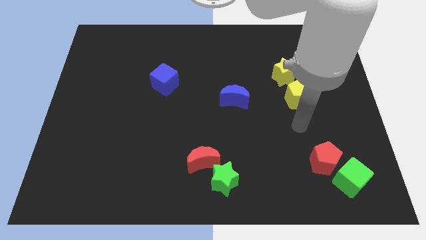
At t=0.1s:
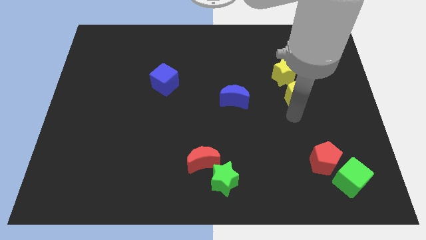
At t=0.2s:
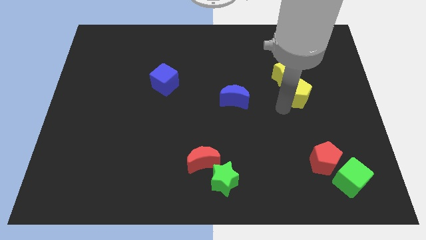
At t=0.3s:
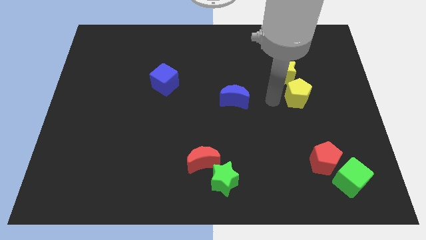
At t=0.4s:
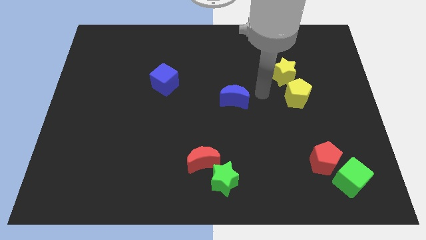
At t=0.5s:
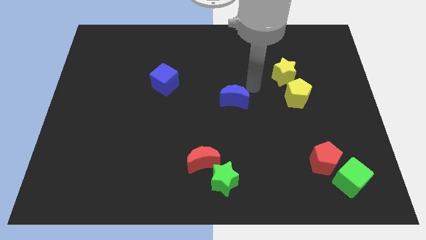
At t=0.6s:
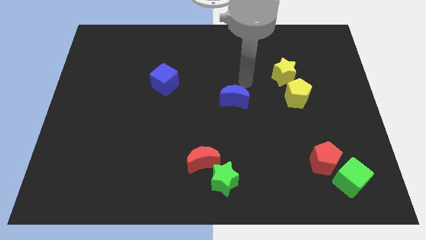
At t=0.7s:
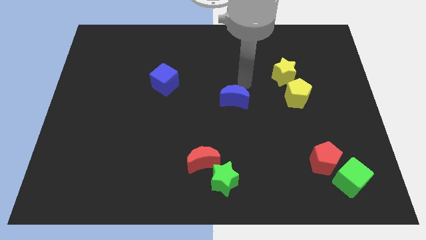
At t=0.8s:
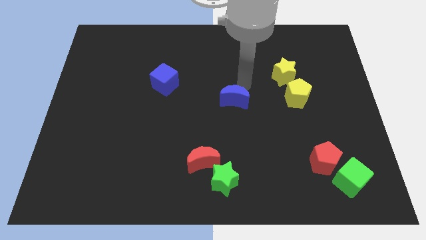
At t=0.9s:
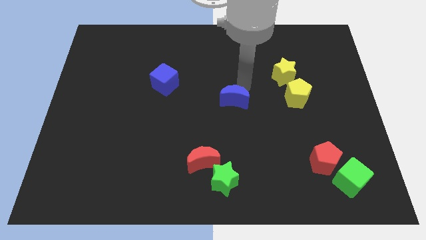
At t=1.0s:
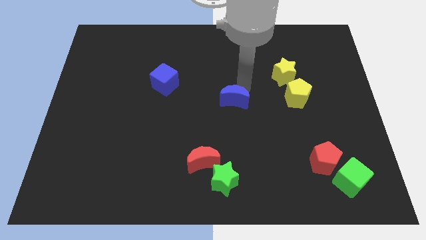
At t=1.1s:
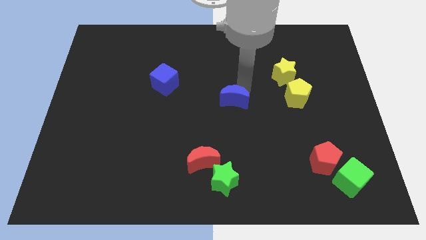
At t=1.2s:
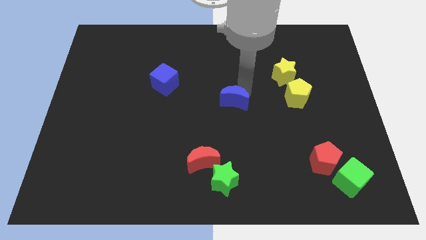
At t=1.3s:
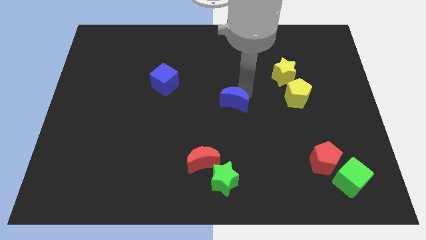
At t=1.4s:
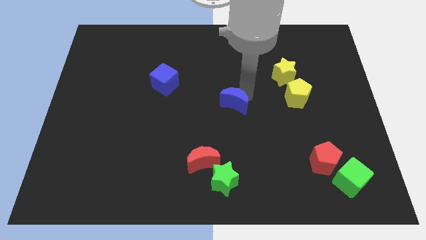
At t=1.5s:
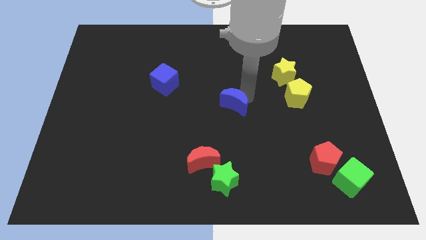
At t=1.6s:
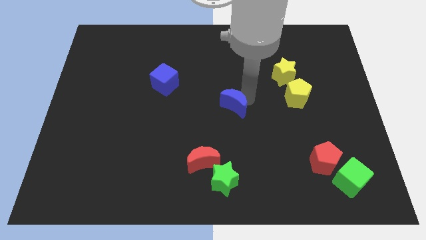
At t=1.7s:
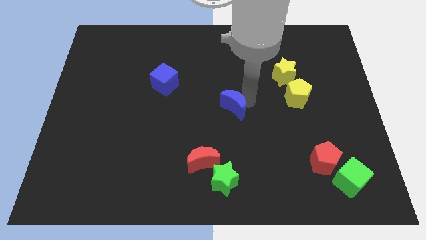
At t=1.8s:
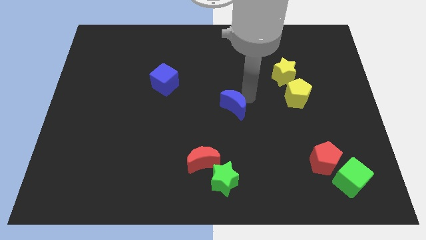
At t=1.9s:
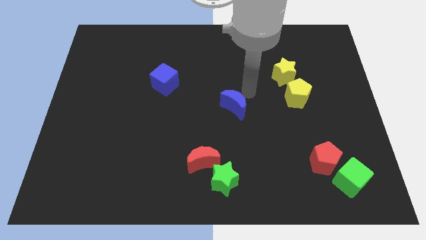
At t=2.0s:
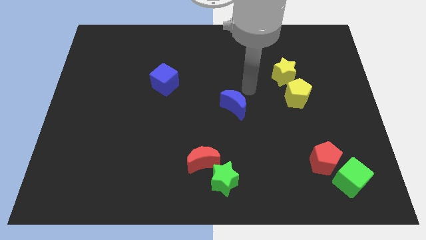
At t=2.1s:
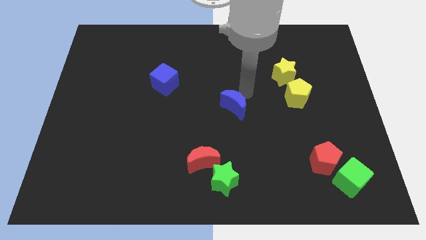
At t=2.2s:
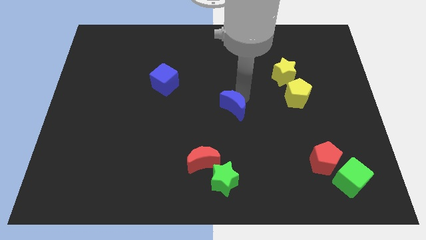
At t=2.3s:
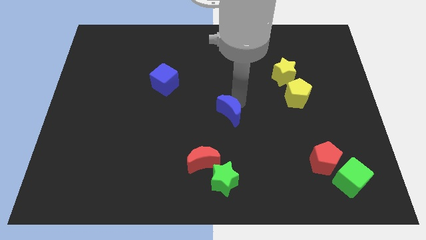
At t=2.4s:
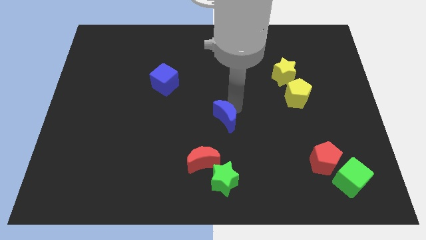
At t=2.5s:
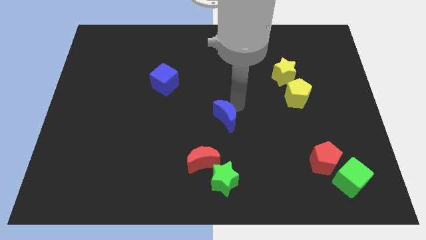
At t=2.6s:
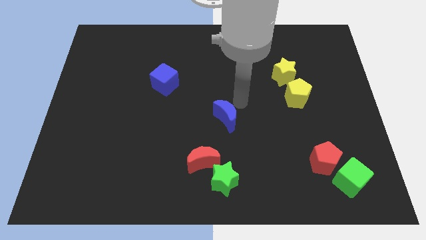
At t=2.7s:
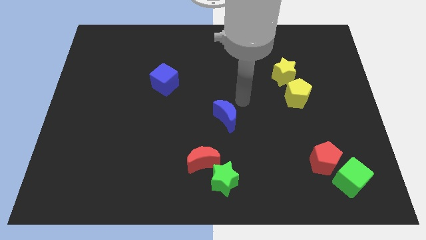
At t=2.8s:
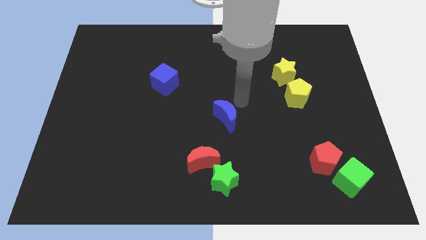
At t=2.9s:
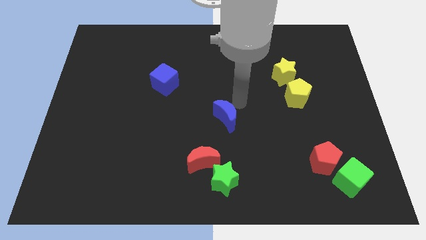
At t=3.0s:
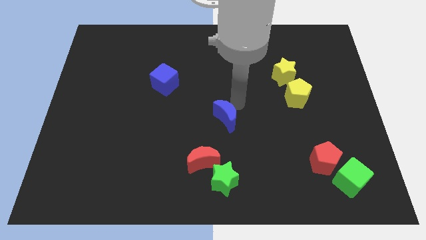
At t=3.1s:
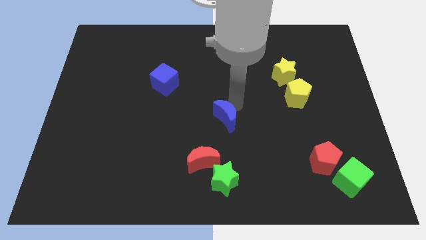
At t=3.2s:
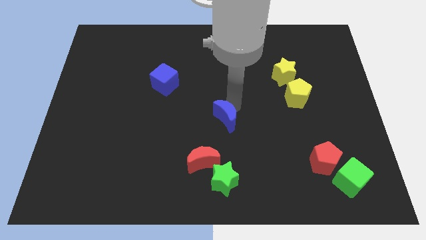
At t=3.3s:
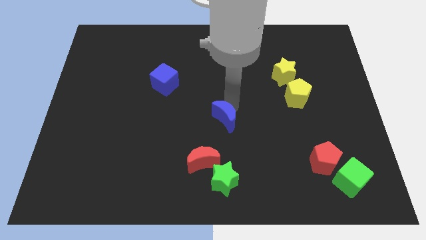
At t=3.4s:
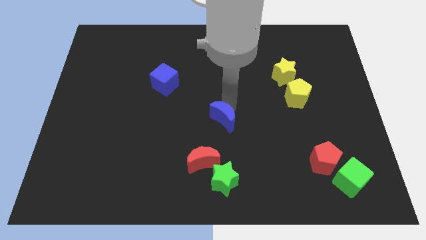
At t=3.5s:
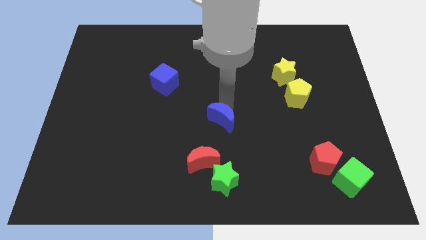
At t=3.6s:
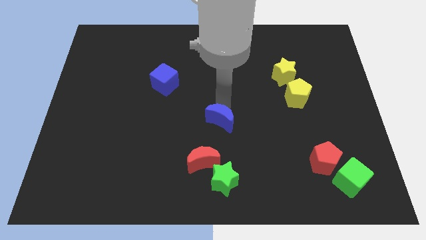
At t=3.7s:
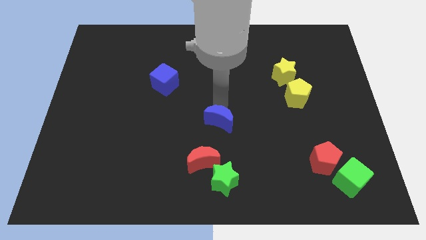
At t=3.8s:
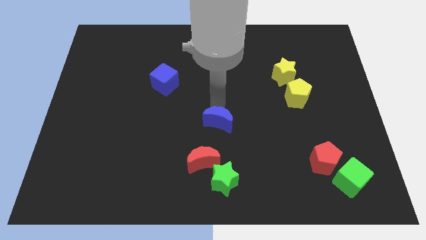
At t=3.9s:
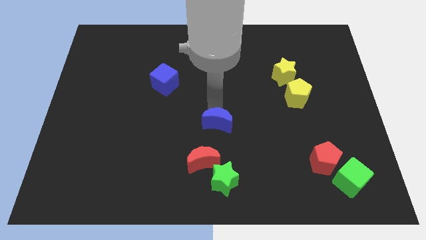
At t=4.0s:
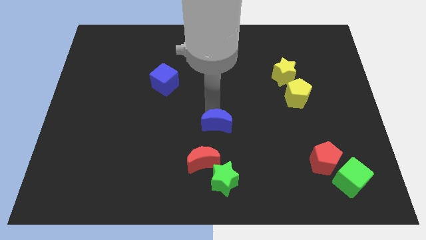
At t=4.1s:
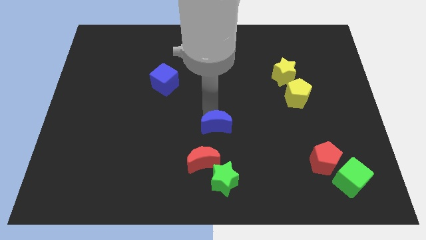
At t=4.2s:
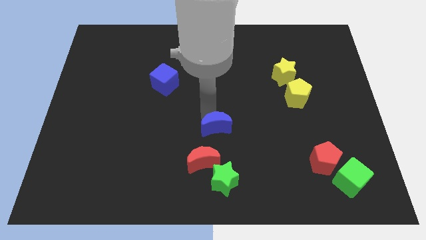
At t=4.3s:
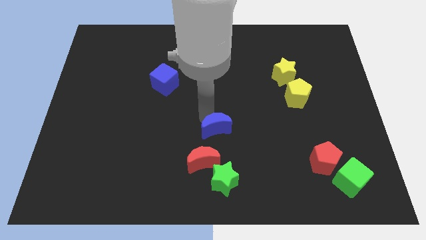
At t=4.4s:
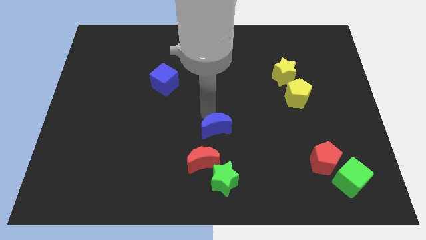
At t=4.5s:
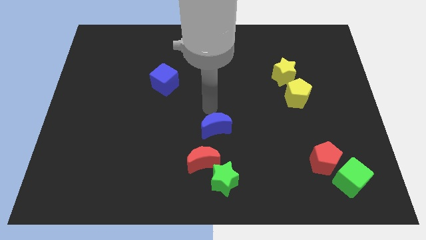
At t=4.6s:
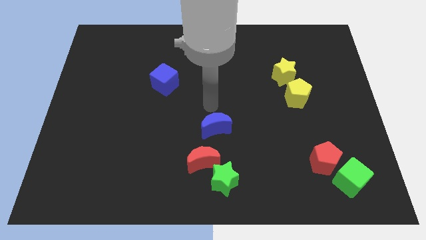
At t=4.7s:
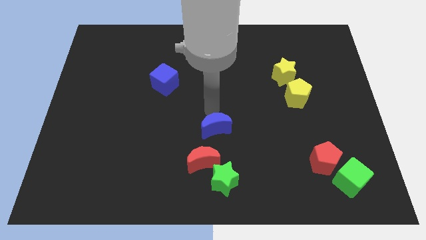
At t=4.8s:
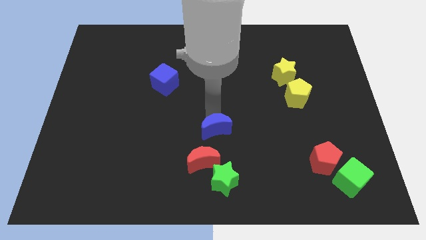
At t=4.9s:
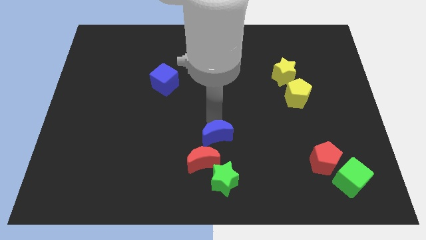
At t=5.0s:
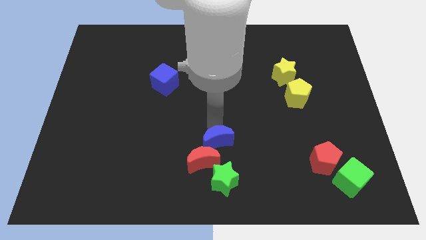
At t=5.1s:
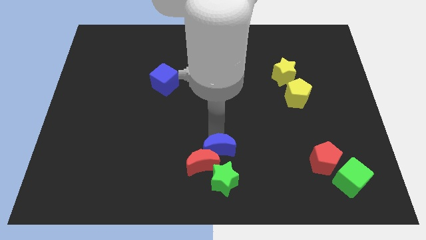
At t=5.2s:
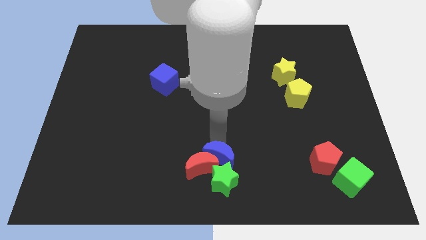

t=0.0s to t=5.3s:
push the blue moon to the green star

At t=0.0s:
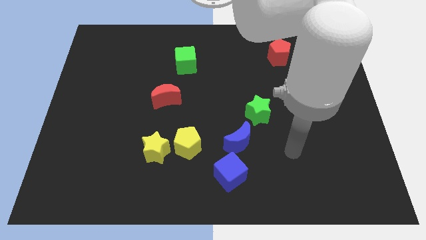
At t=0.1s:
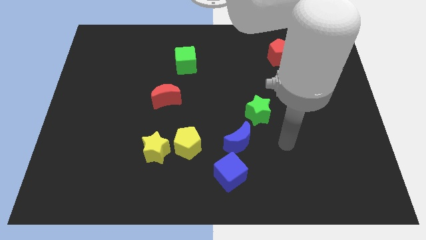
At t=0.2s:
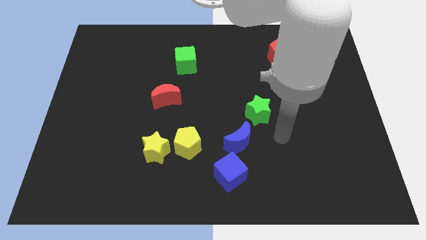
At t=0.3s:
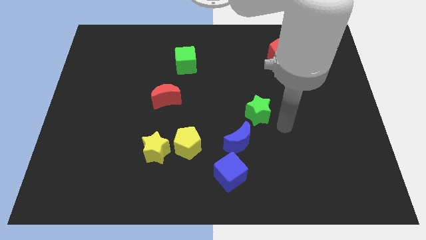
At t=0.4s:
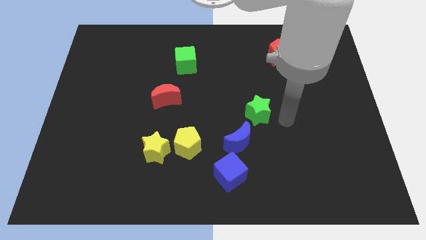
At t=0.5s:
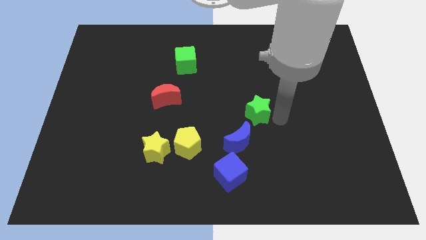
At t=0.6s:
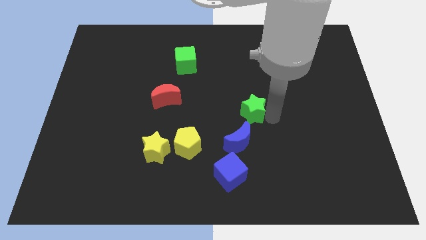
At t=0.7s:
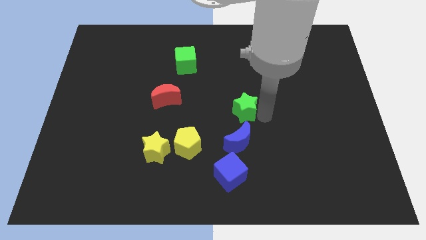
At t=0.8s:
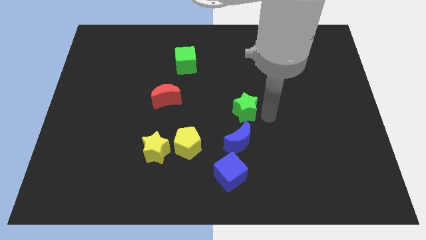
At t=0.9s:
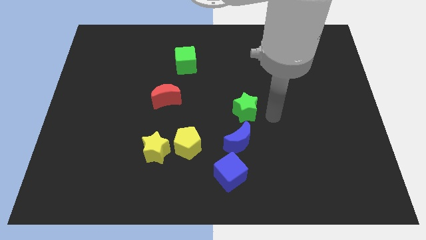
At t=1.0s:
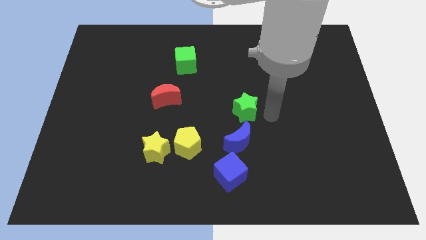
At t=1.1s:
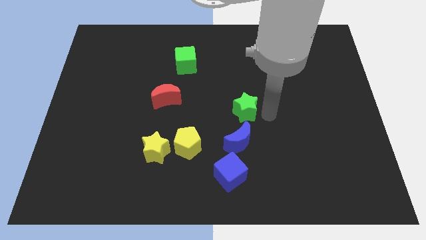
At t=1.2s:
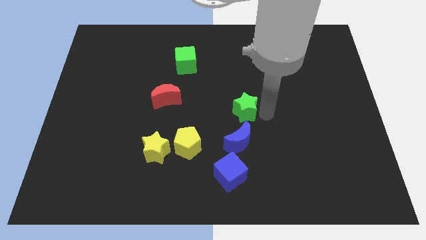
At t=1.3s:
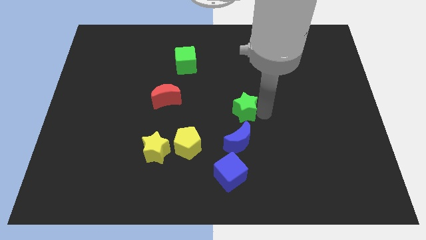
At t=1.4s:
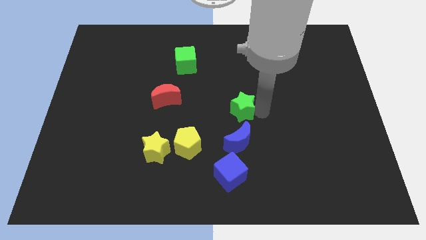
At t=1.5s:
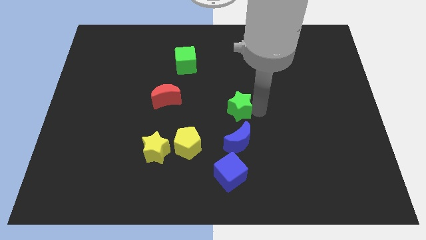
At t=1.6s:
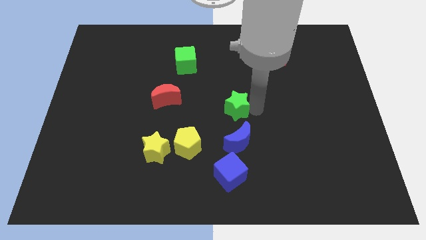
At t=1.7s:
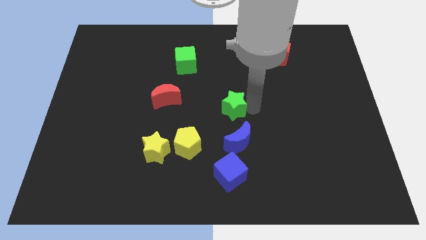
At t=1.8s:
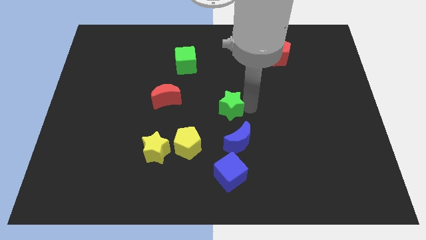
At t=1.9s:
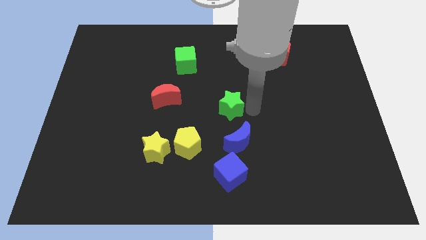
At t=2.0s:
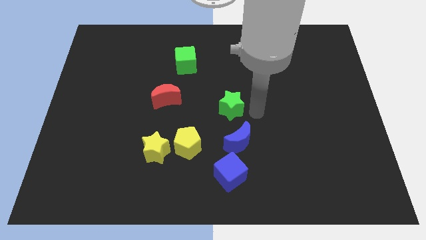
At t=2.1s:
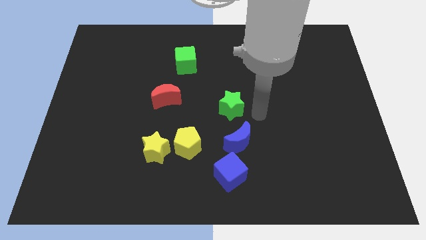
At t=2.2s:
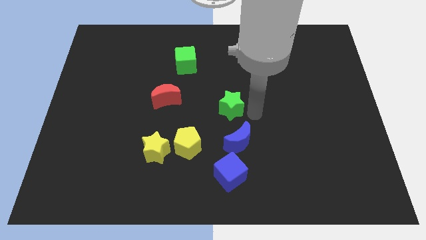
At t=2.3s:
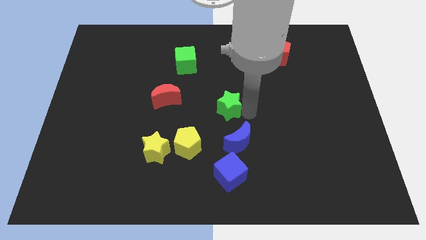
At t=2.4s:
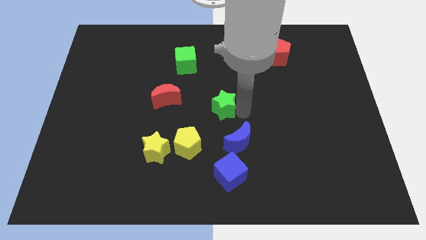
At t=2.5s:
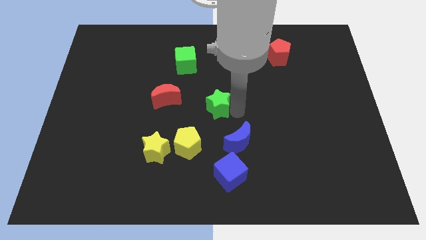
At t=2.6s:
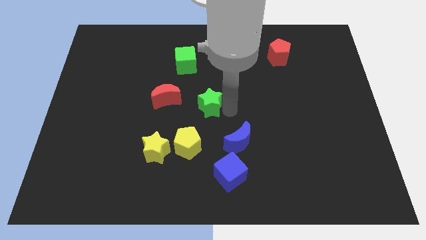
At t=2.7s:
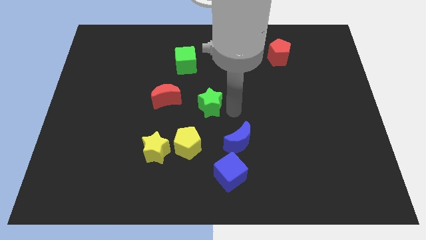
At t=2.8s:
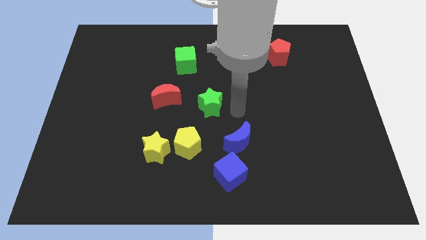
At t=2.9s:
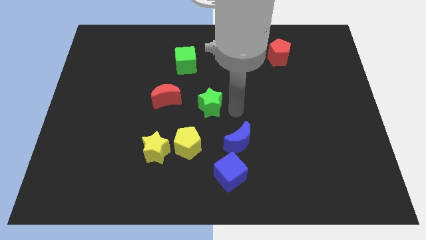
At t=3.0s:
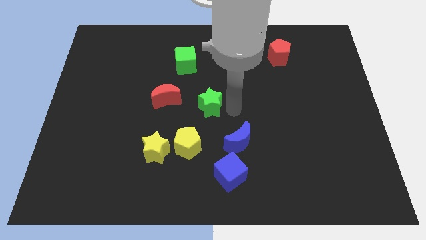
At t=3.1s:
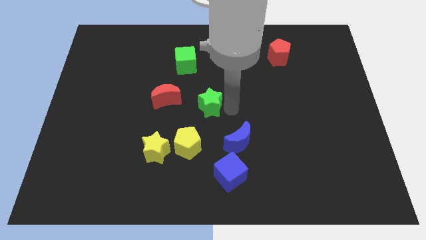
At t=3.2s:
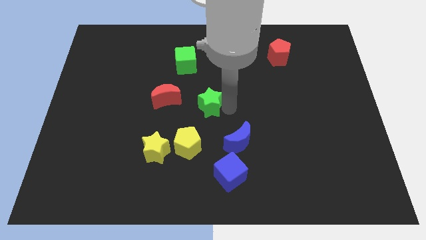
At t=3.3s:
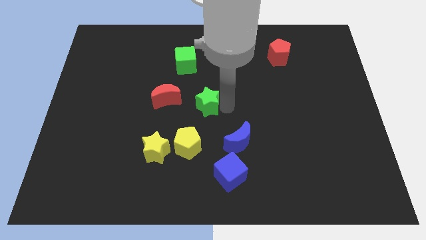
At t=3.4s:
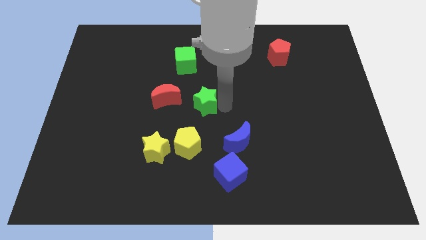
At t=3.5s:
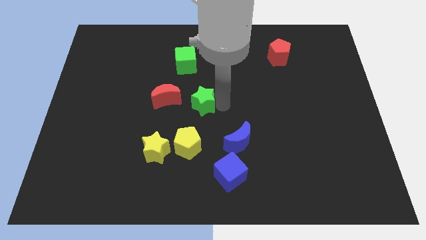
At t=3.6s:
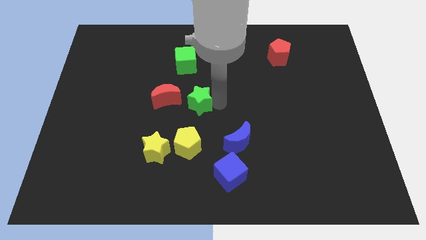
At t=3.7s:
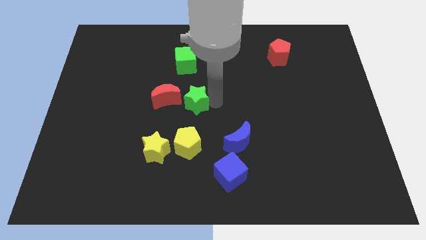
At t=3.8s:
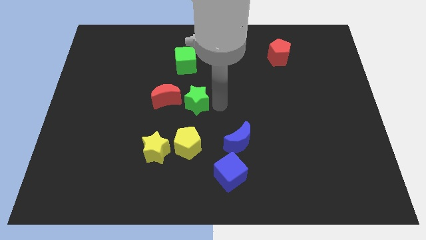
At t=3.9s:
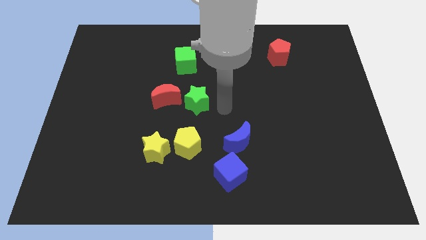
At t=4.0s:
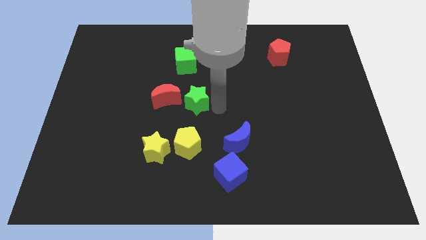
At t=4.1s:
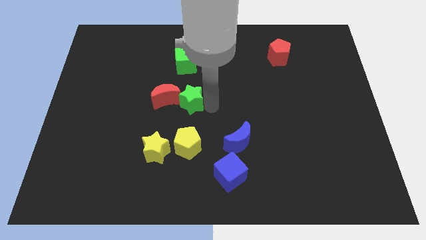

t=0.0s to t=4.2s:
put the green star close to the red moon
